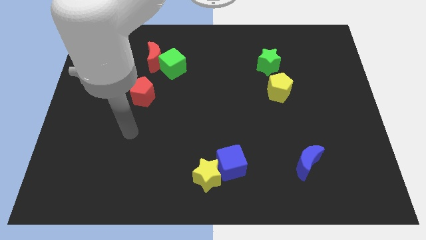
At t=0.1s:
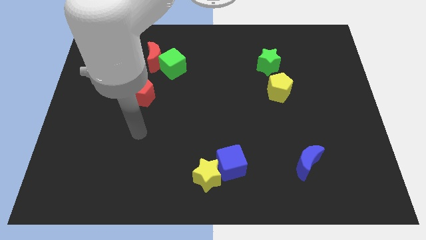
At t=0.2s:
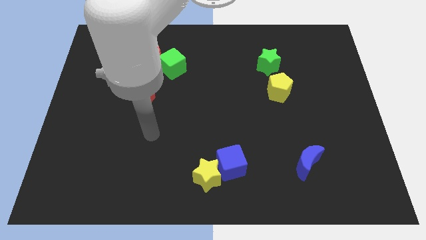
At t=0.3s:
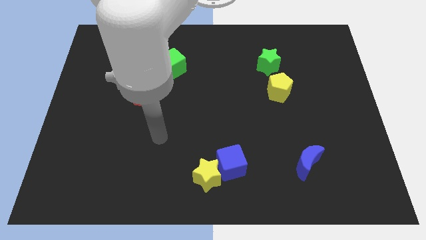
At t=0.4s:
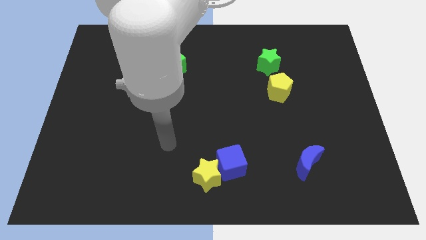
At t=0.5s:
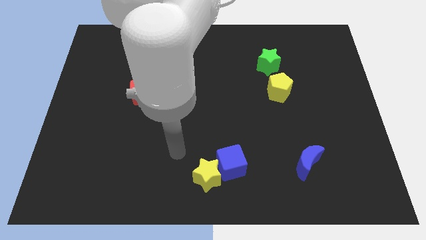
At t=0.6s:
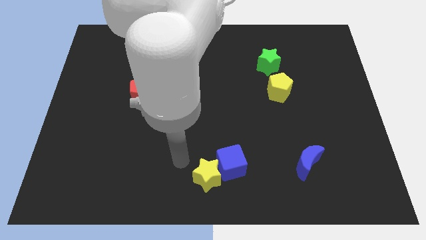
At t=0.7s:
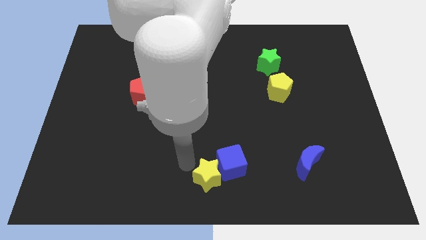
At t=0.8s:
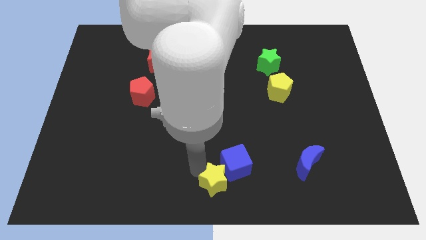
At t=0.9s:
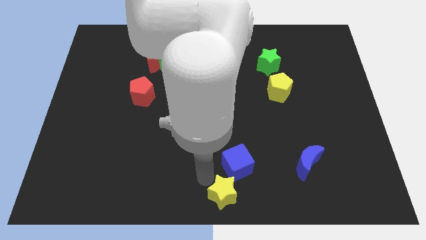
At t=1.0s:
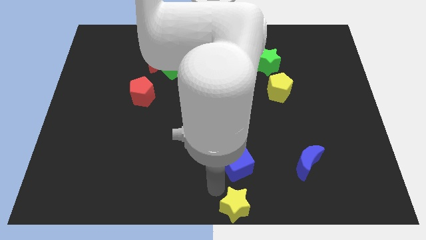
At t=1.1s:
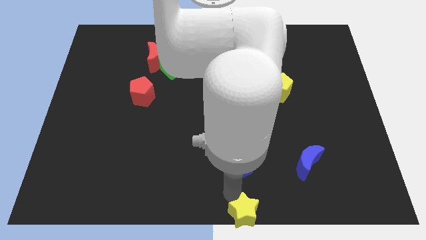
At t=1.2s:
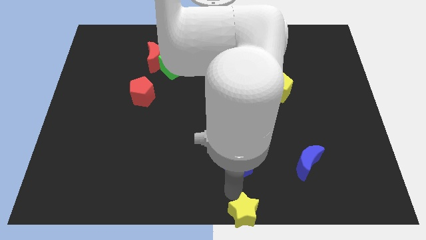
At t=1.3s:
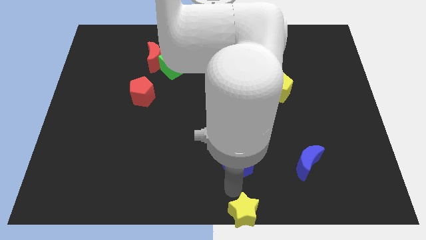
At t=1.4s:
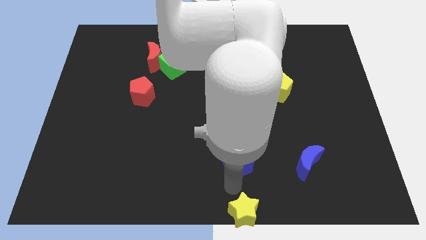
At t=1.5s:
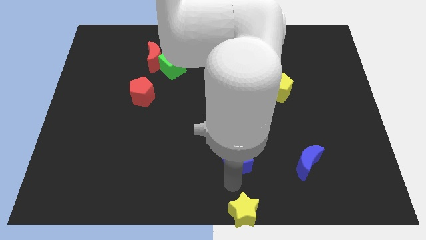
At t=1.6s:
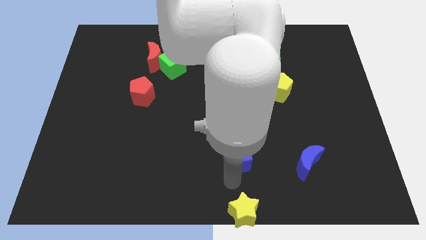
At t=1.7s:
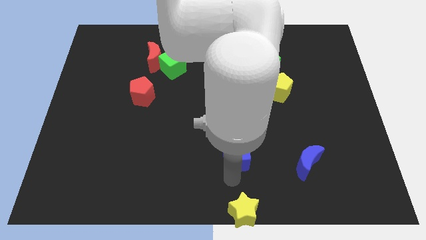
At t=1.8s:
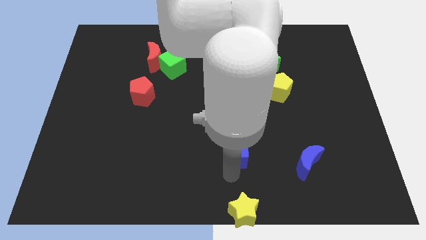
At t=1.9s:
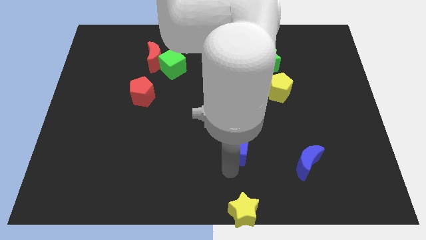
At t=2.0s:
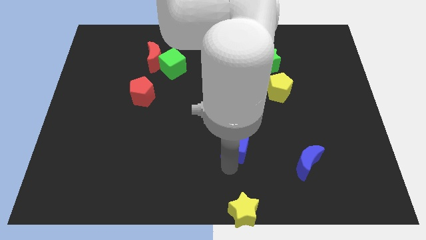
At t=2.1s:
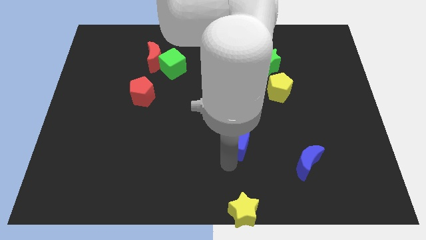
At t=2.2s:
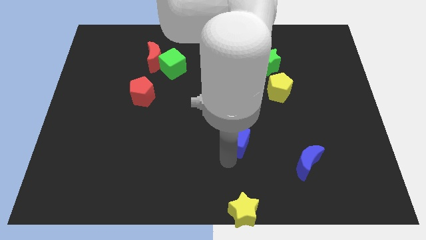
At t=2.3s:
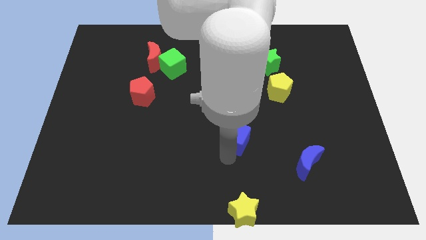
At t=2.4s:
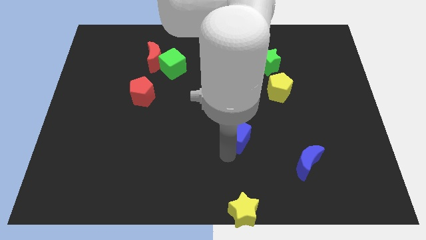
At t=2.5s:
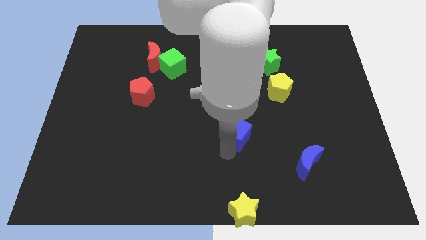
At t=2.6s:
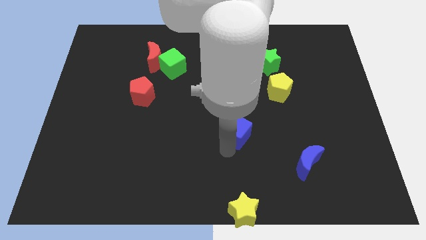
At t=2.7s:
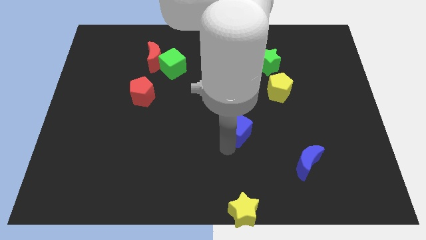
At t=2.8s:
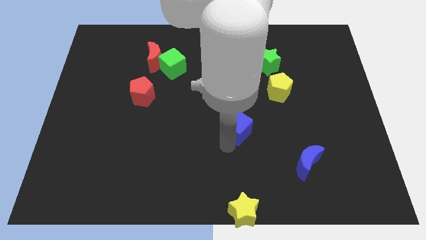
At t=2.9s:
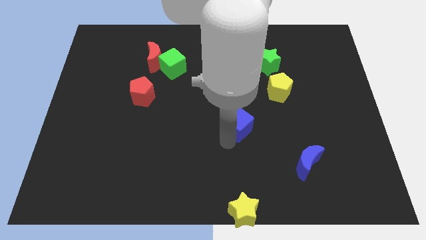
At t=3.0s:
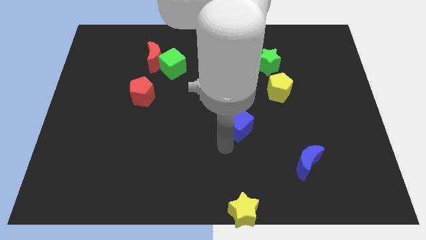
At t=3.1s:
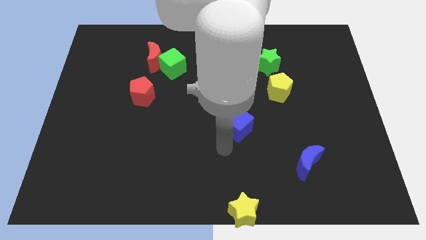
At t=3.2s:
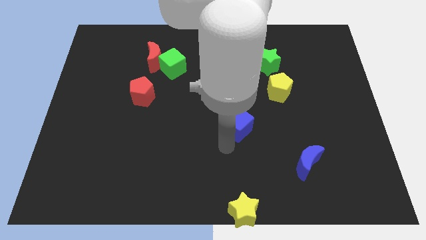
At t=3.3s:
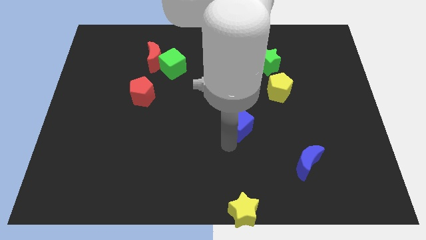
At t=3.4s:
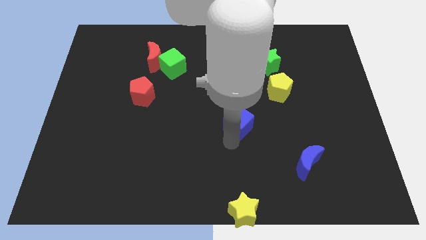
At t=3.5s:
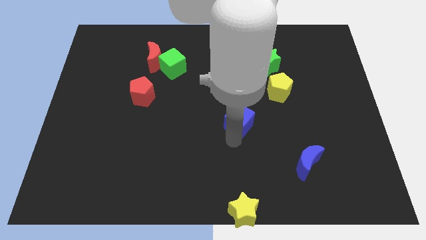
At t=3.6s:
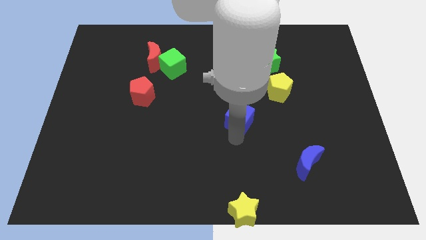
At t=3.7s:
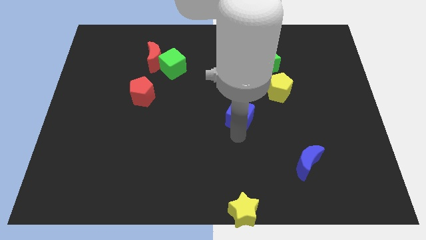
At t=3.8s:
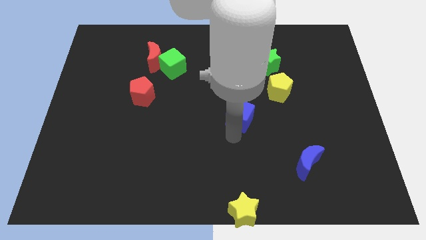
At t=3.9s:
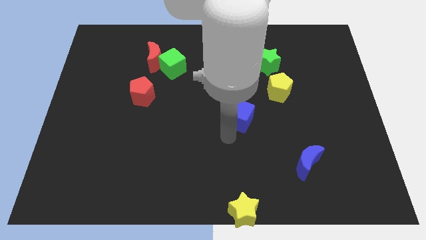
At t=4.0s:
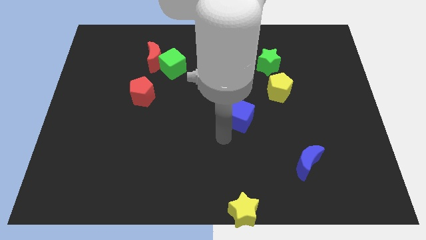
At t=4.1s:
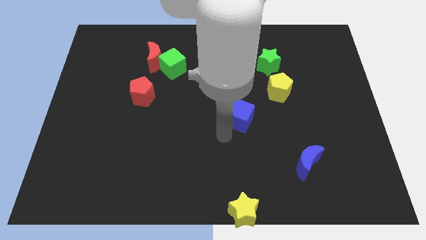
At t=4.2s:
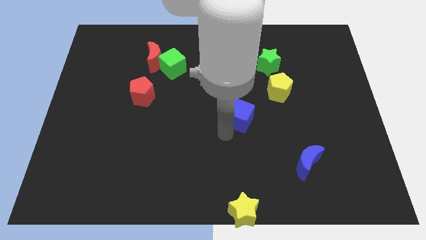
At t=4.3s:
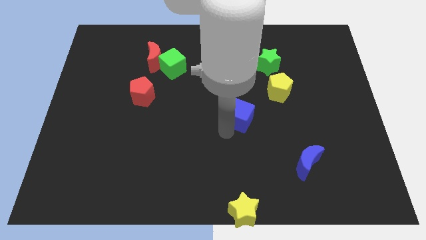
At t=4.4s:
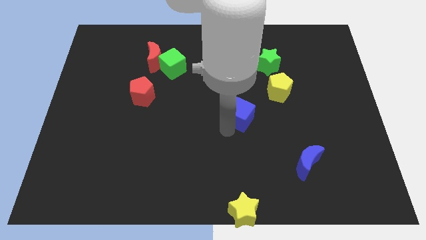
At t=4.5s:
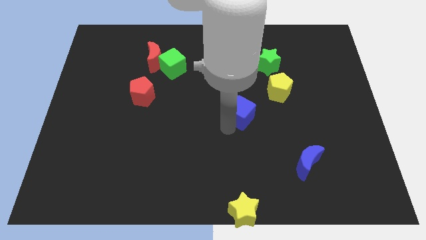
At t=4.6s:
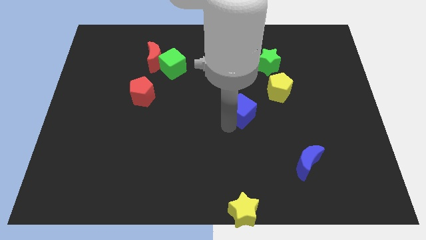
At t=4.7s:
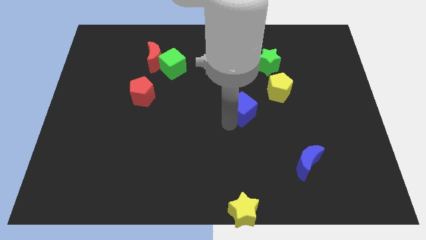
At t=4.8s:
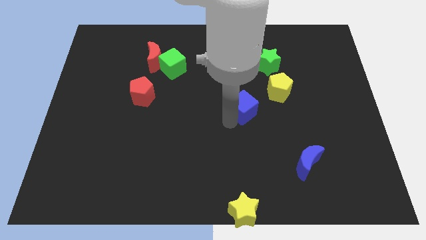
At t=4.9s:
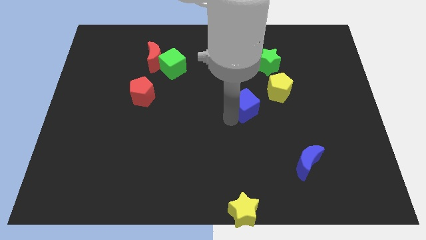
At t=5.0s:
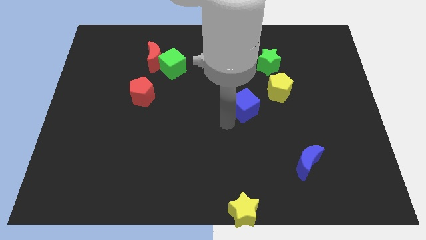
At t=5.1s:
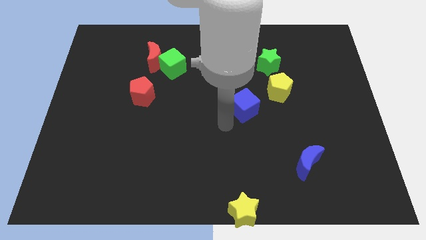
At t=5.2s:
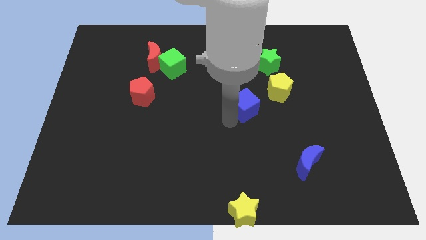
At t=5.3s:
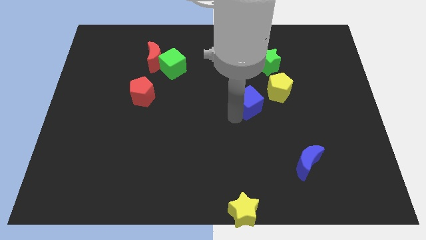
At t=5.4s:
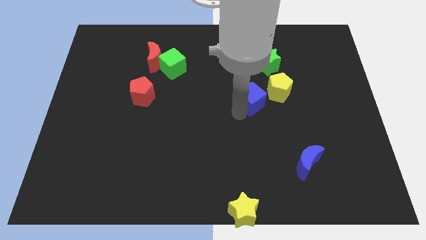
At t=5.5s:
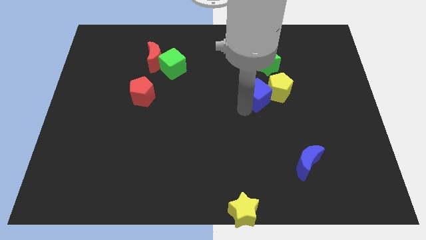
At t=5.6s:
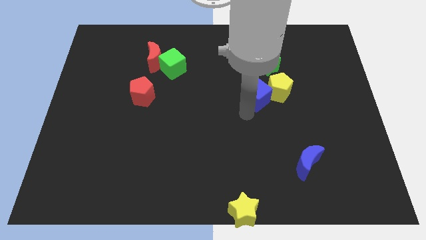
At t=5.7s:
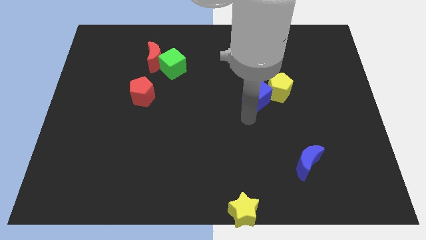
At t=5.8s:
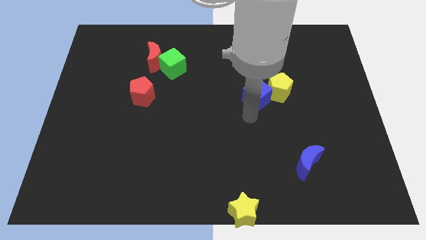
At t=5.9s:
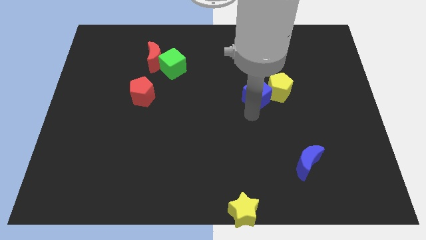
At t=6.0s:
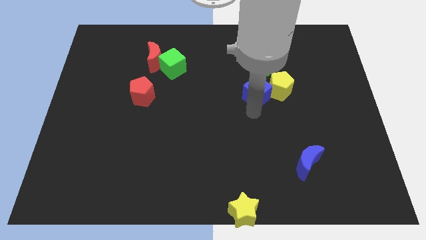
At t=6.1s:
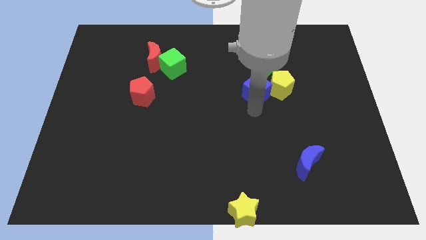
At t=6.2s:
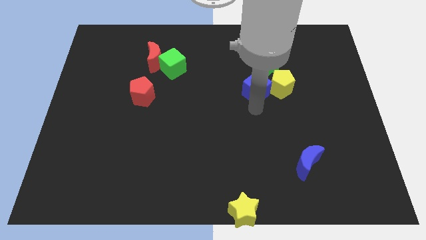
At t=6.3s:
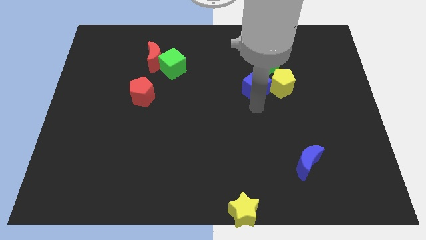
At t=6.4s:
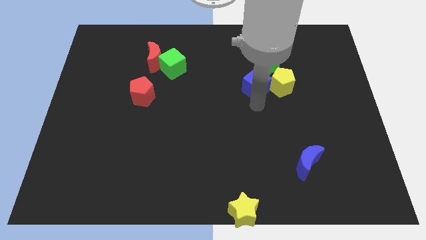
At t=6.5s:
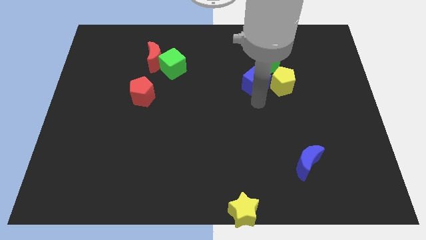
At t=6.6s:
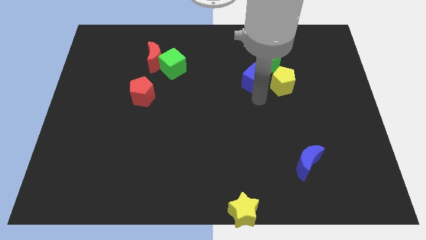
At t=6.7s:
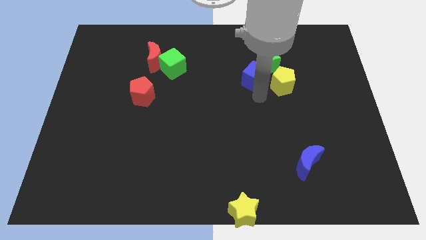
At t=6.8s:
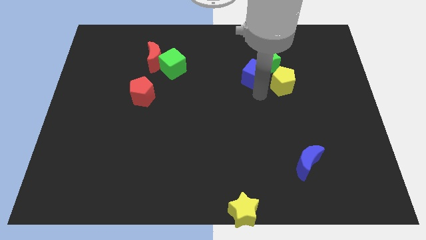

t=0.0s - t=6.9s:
put the blue cube to the green star
